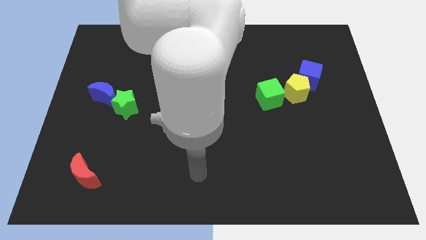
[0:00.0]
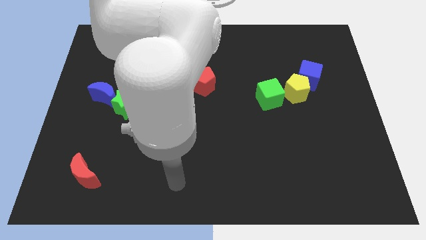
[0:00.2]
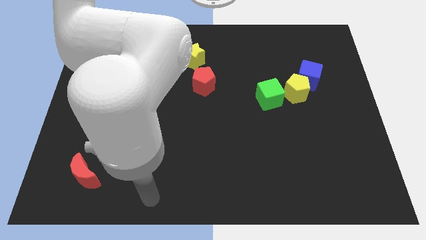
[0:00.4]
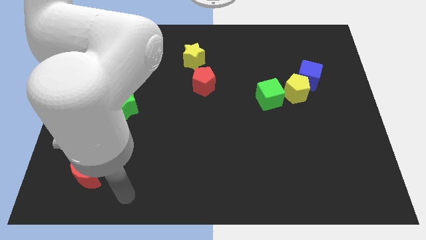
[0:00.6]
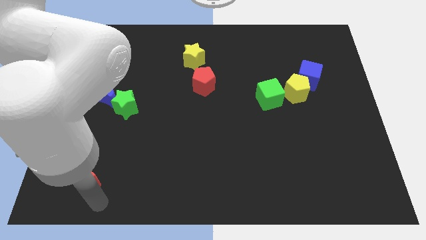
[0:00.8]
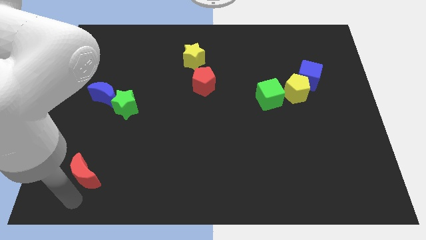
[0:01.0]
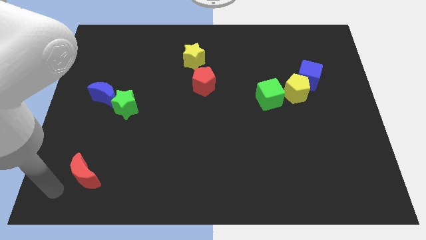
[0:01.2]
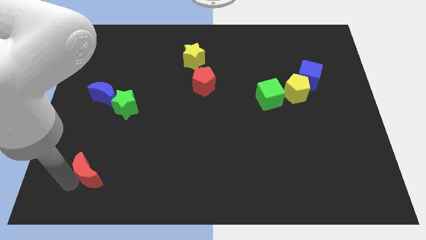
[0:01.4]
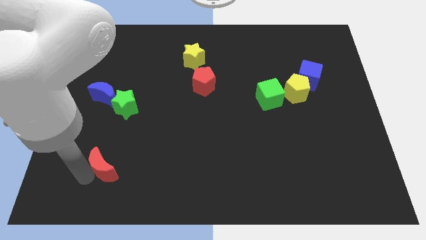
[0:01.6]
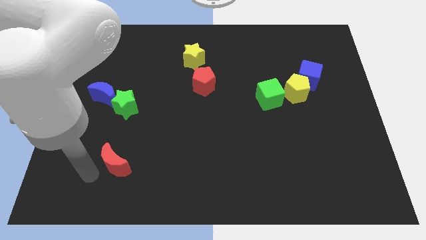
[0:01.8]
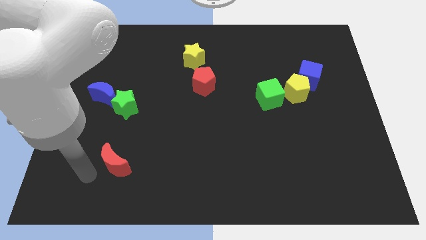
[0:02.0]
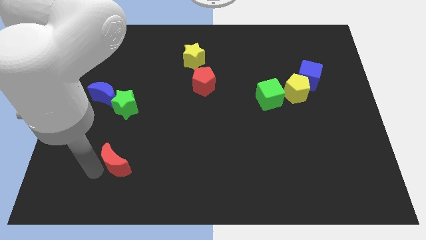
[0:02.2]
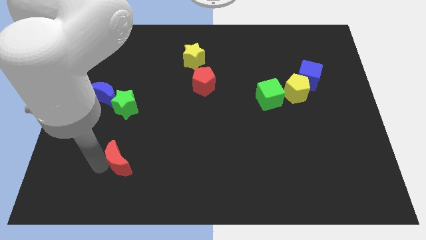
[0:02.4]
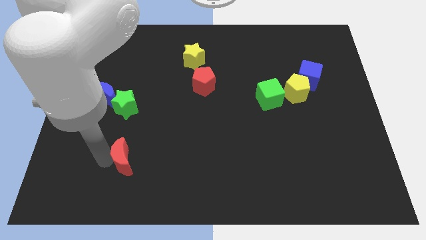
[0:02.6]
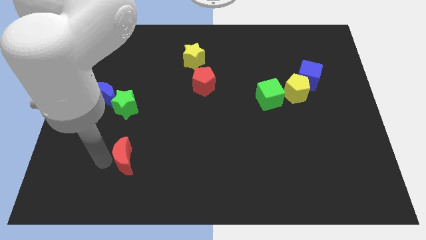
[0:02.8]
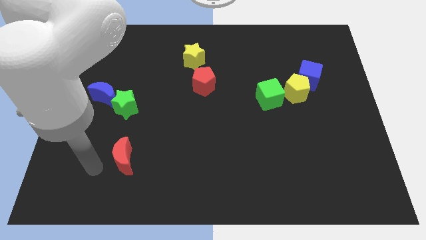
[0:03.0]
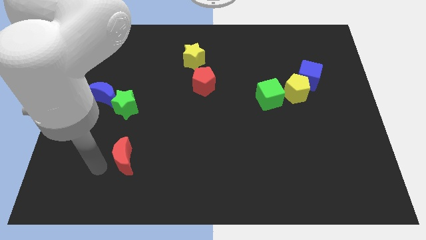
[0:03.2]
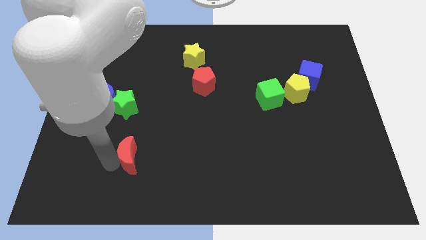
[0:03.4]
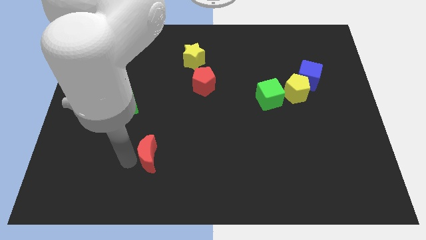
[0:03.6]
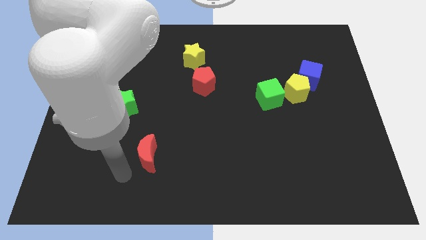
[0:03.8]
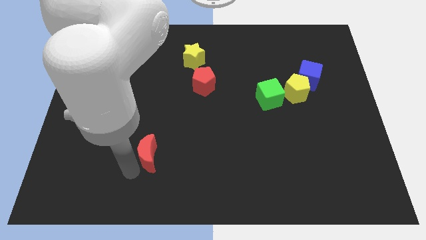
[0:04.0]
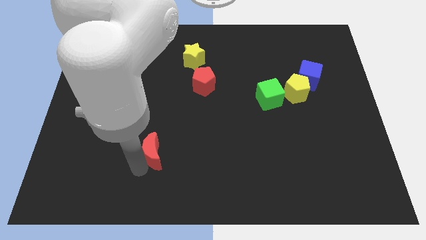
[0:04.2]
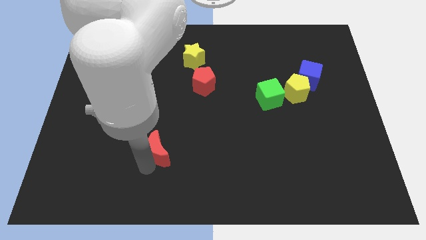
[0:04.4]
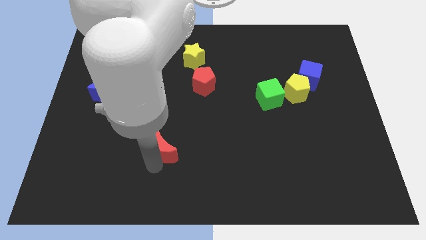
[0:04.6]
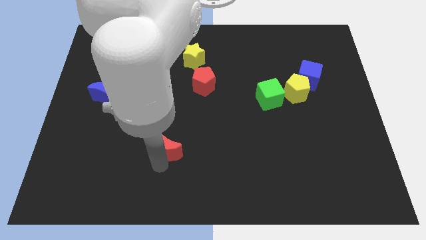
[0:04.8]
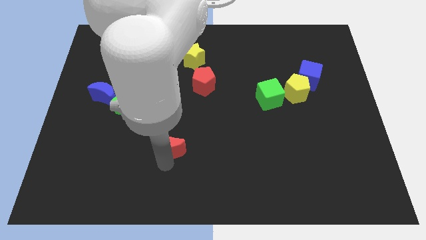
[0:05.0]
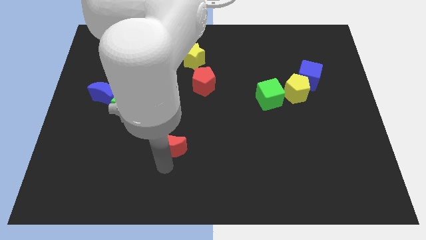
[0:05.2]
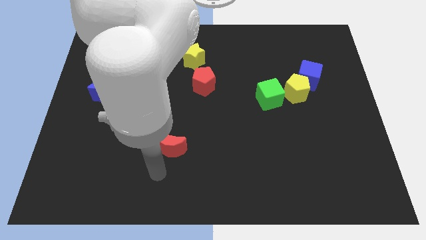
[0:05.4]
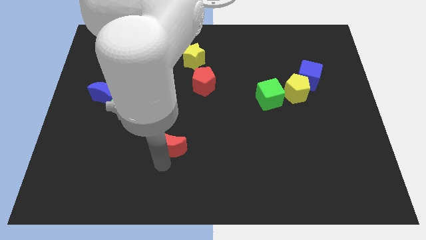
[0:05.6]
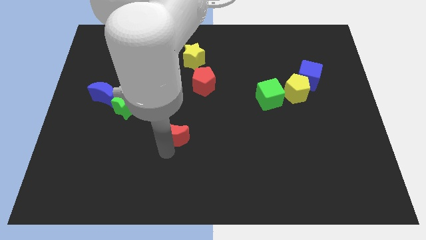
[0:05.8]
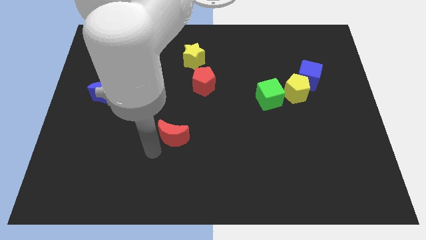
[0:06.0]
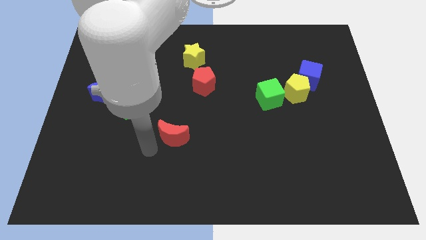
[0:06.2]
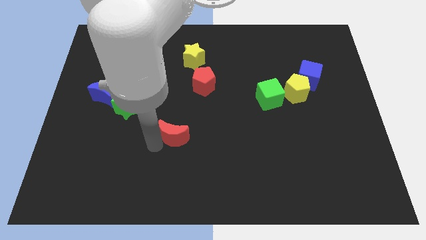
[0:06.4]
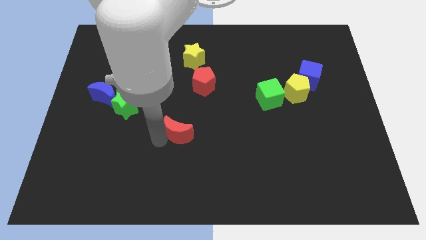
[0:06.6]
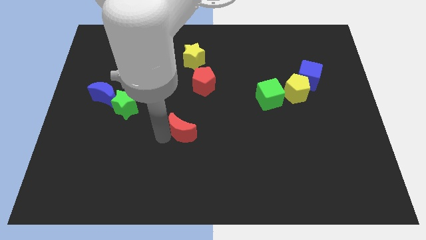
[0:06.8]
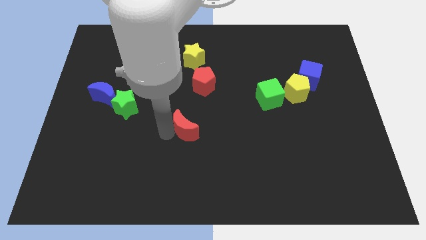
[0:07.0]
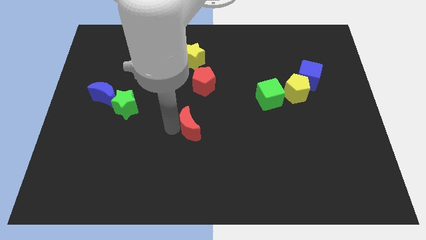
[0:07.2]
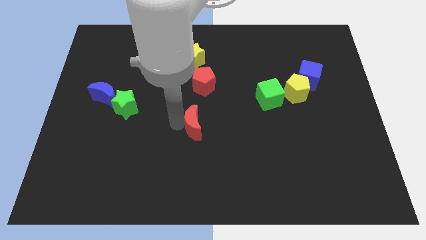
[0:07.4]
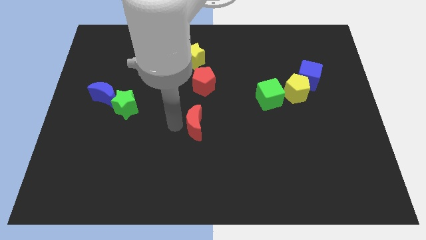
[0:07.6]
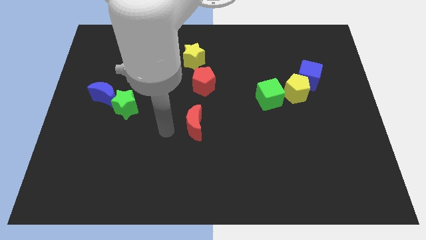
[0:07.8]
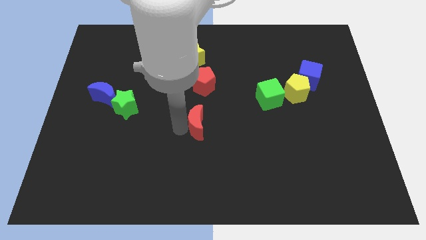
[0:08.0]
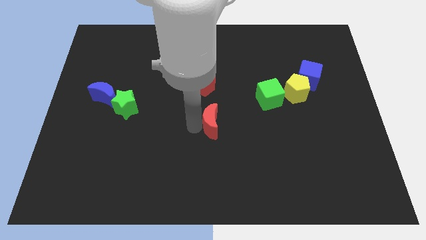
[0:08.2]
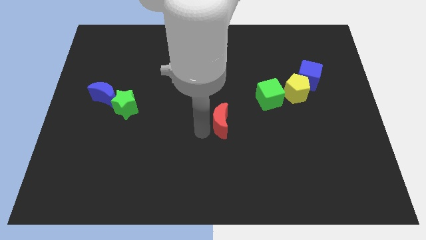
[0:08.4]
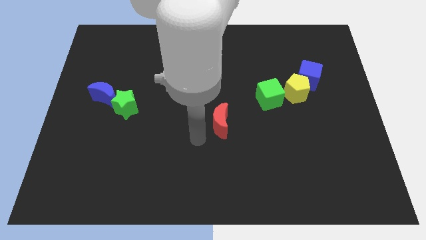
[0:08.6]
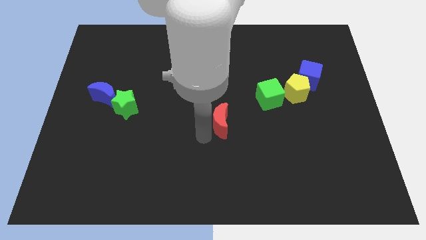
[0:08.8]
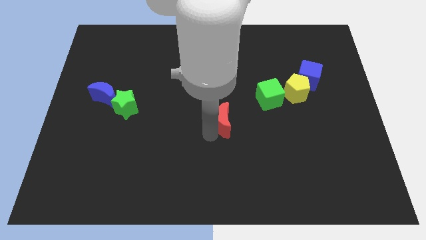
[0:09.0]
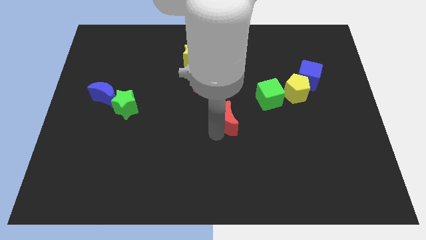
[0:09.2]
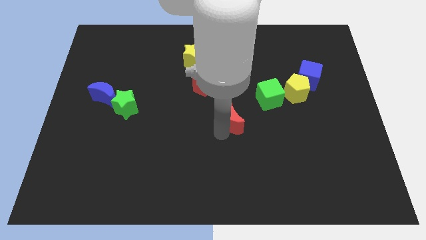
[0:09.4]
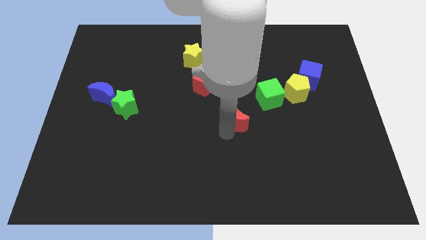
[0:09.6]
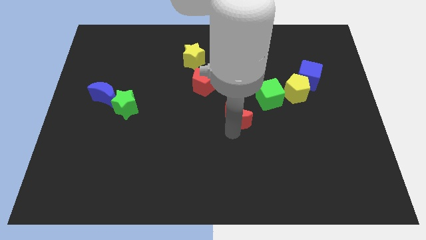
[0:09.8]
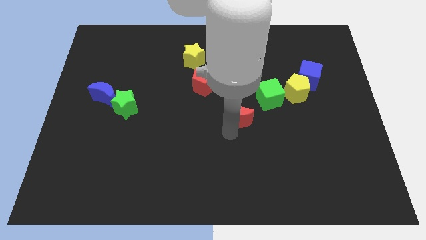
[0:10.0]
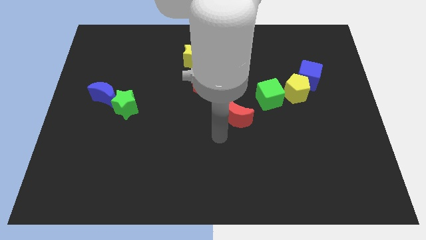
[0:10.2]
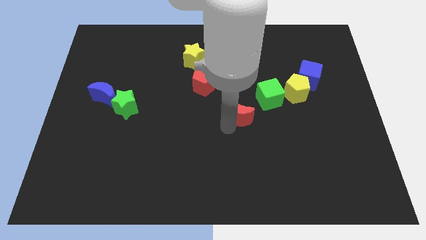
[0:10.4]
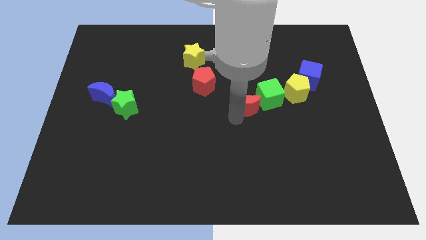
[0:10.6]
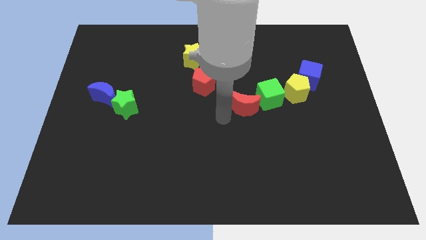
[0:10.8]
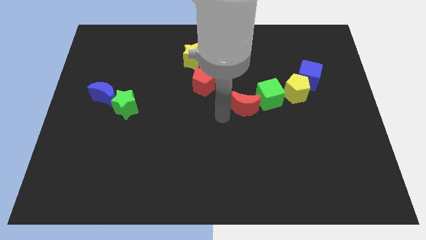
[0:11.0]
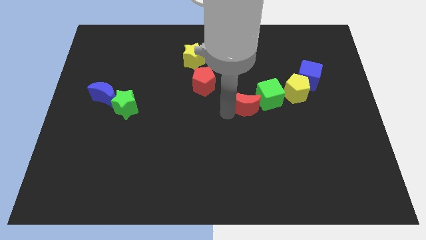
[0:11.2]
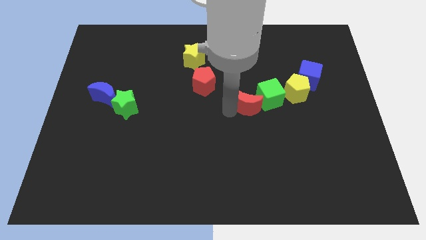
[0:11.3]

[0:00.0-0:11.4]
push the red moon to the green cube

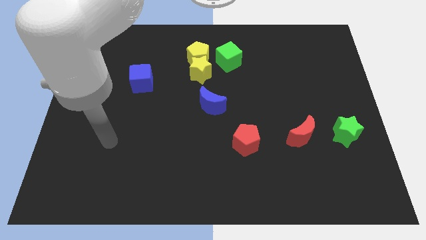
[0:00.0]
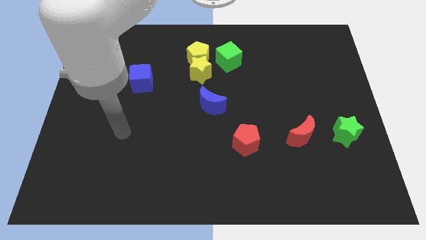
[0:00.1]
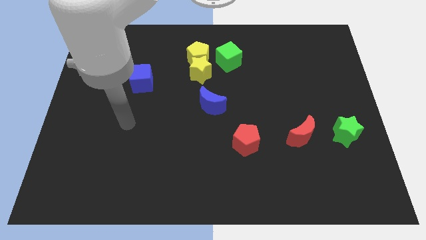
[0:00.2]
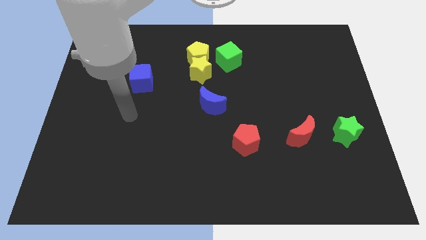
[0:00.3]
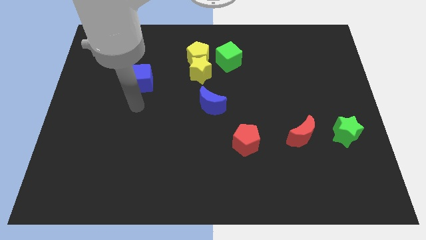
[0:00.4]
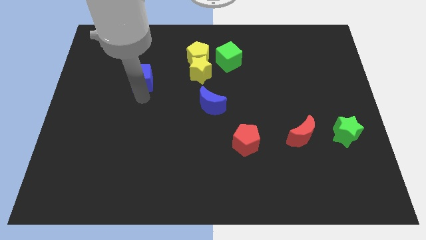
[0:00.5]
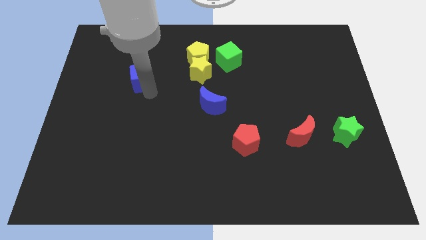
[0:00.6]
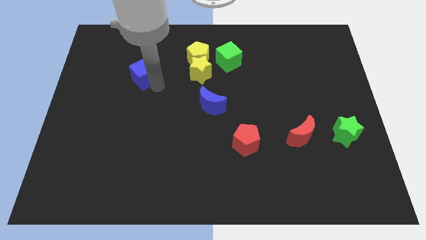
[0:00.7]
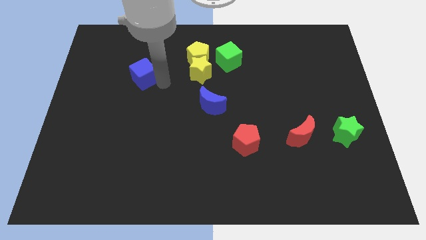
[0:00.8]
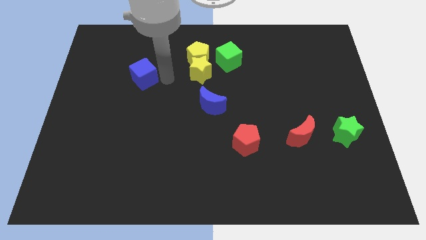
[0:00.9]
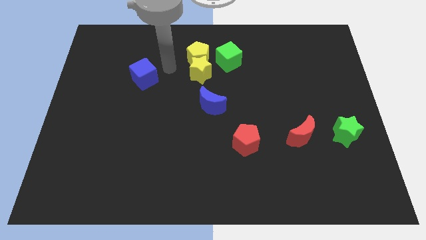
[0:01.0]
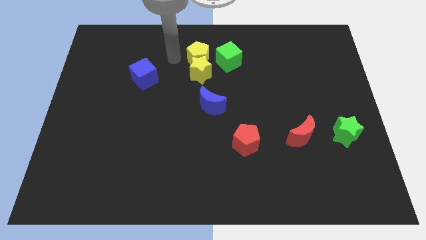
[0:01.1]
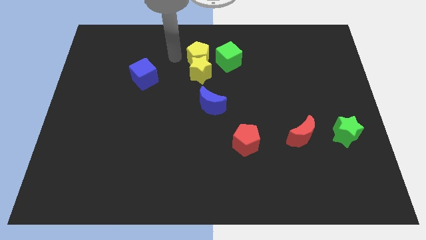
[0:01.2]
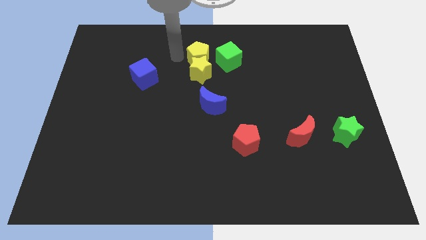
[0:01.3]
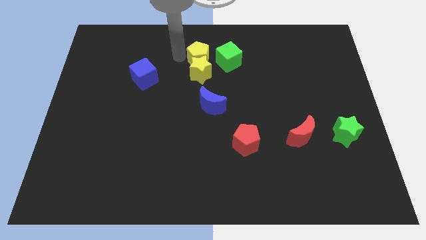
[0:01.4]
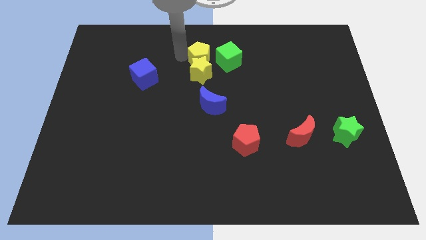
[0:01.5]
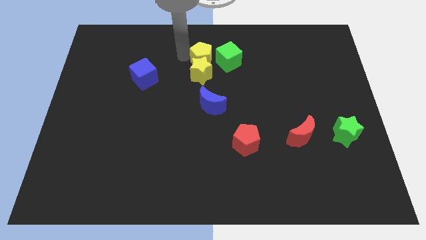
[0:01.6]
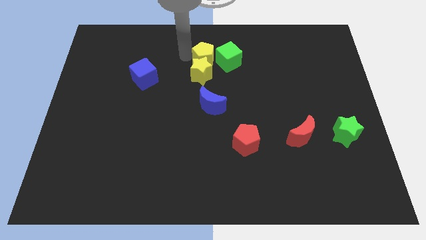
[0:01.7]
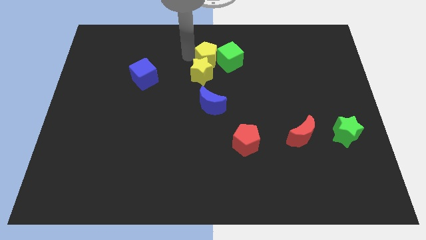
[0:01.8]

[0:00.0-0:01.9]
put the yellow pentagon next to the green cube
